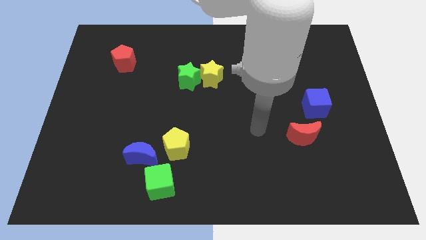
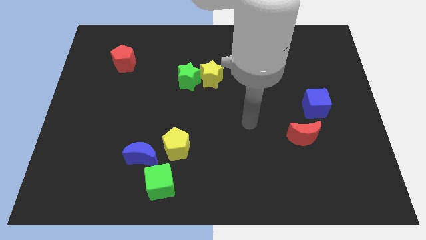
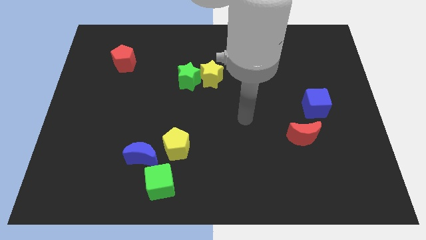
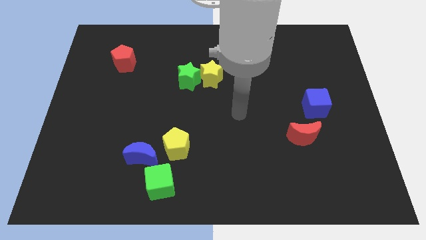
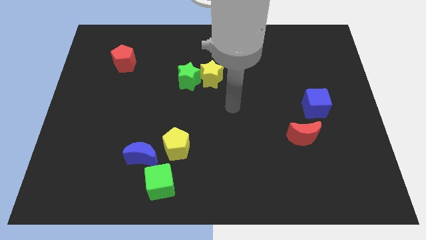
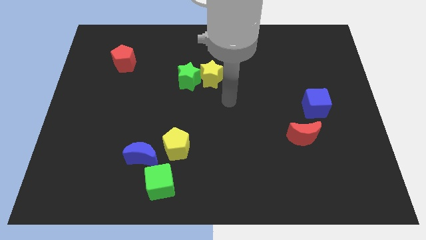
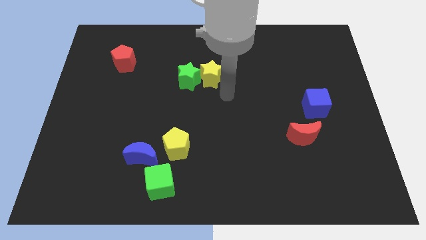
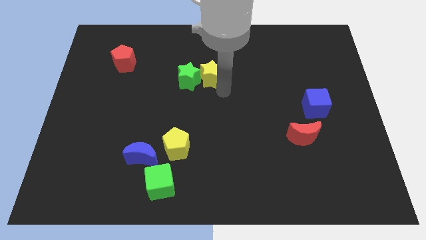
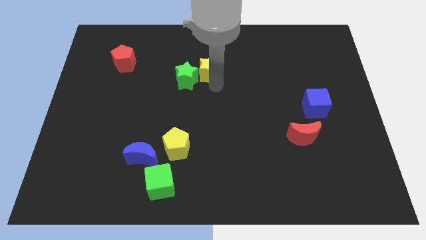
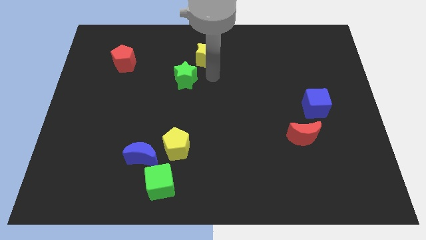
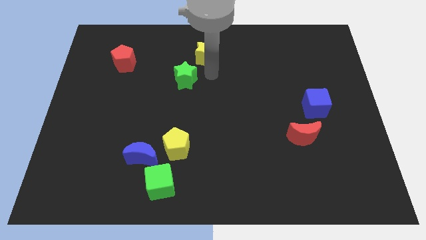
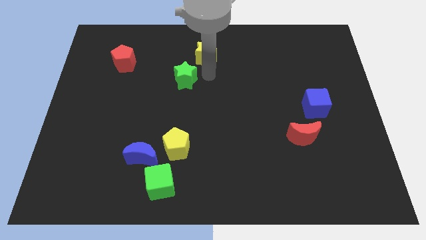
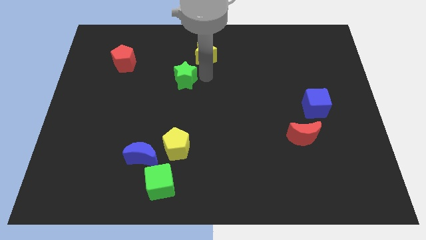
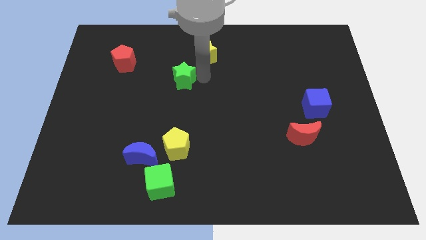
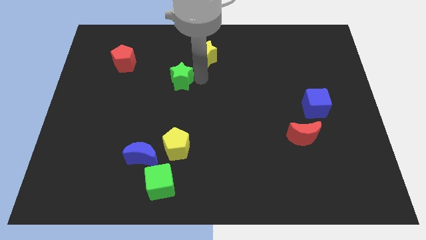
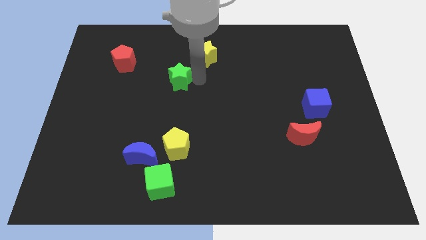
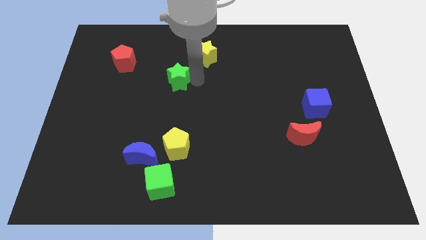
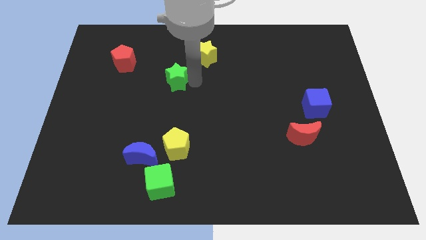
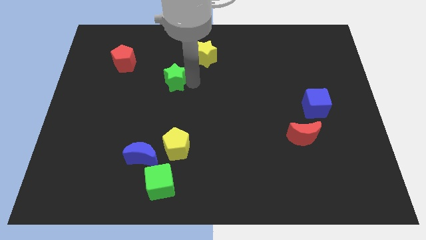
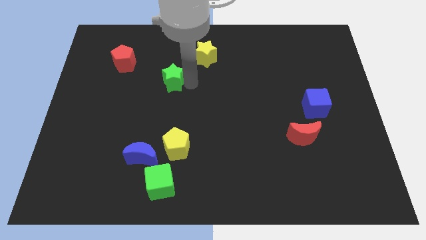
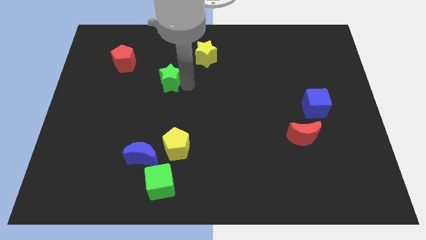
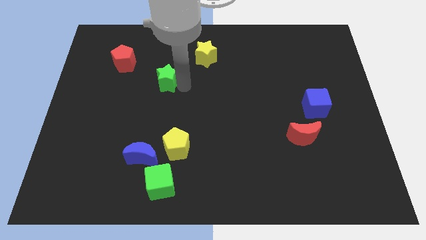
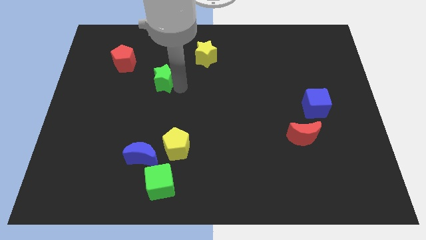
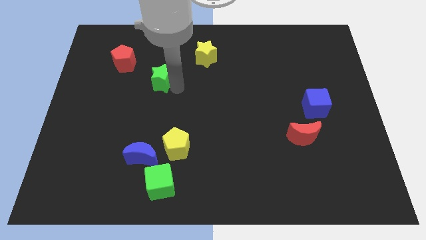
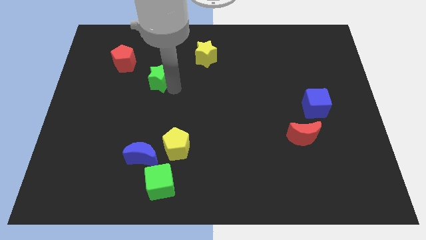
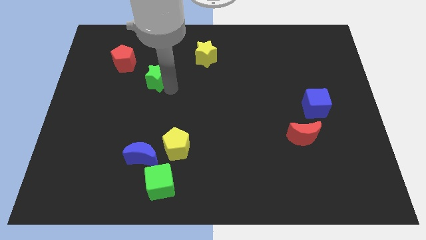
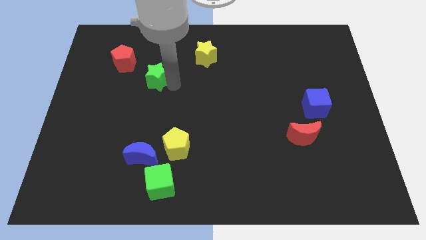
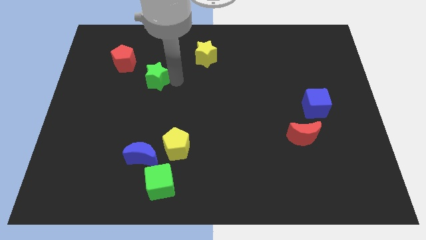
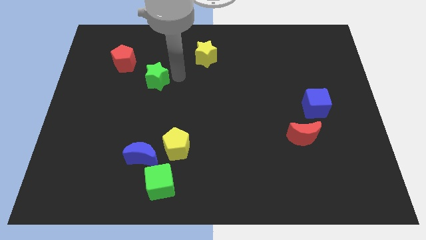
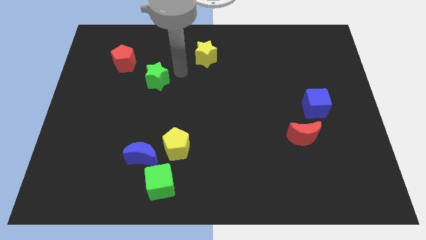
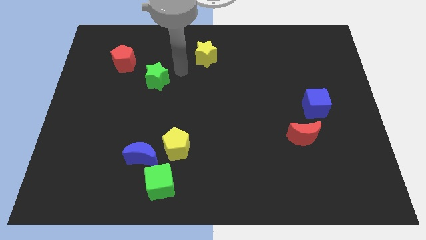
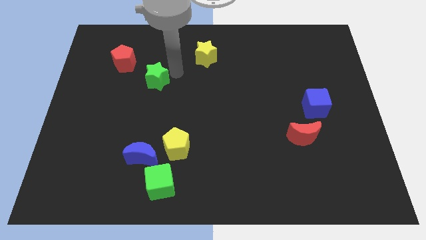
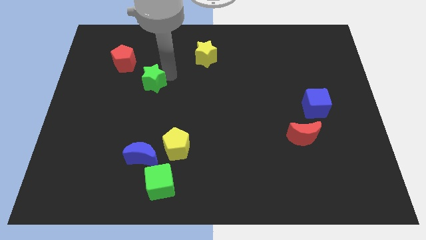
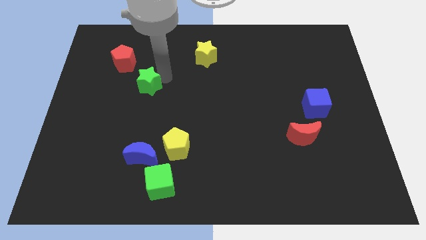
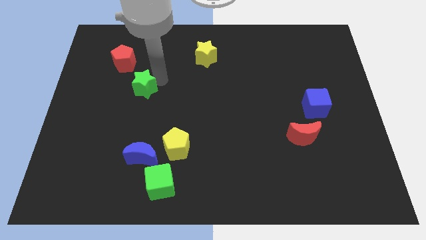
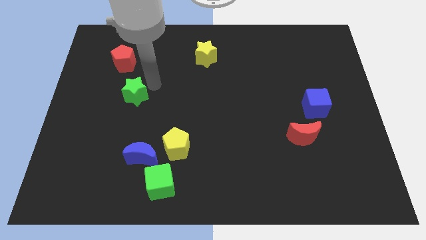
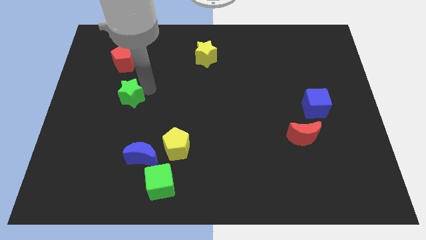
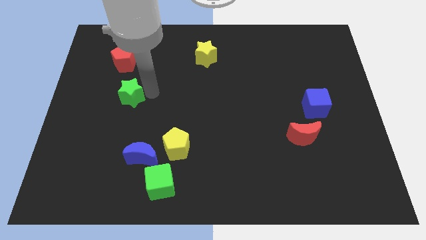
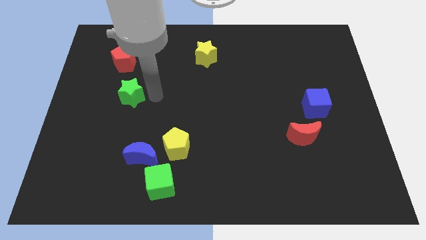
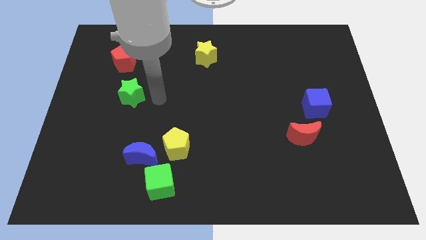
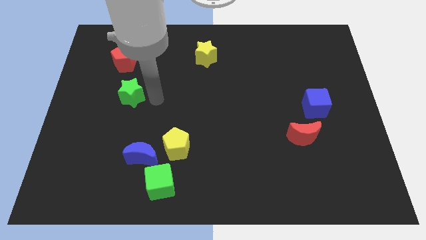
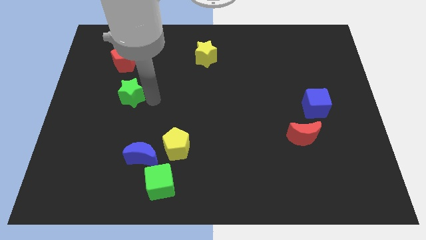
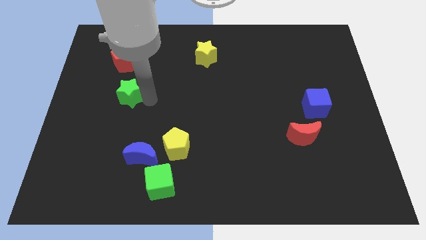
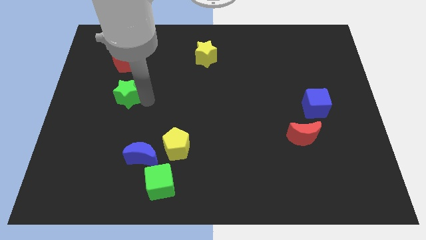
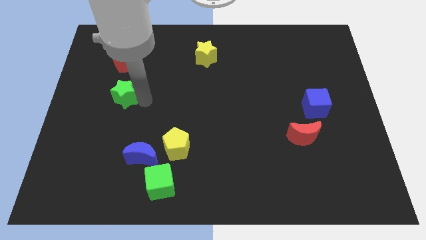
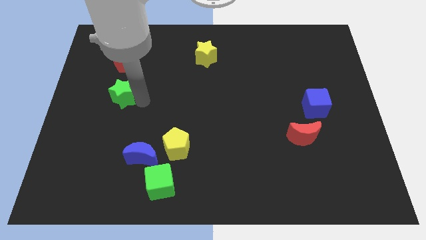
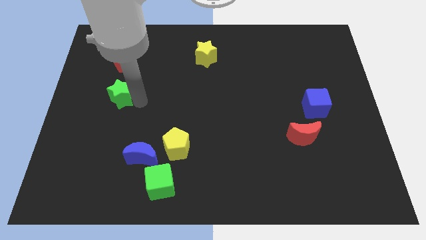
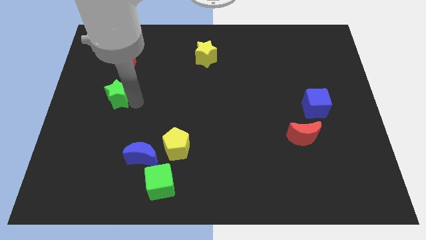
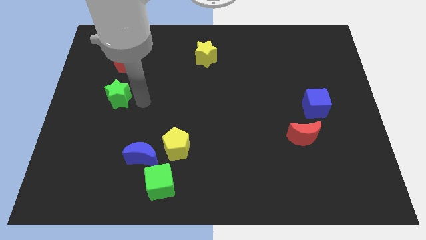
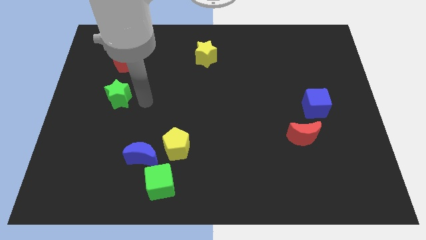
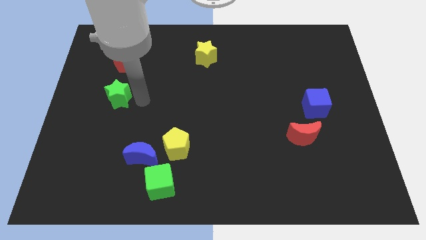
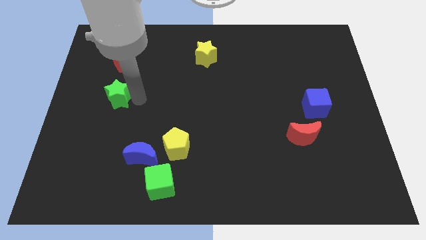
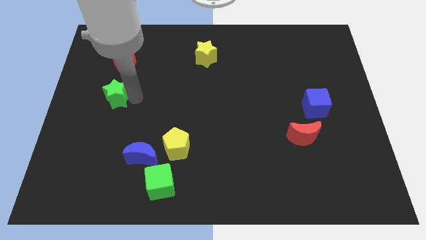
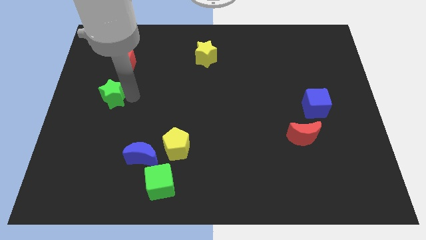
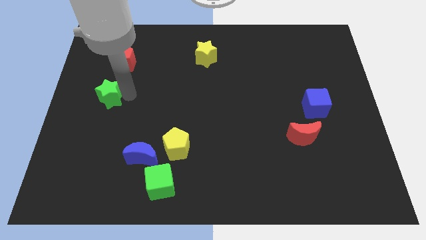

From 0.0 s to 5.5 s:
slide the green star to the center left

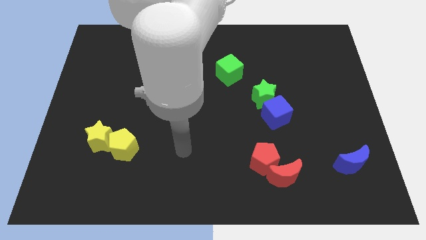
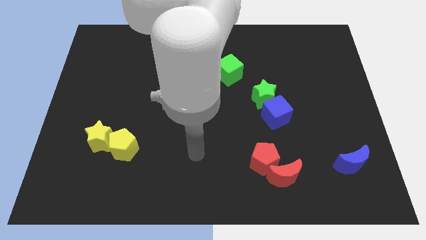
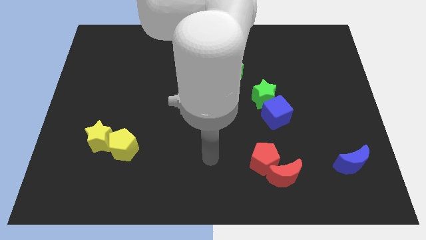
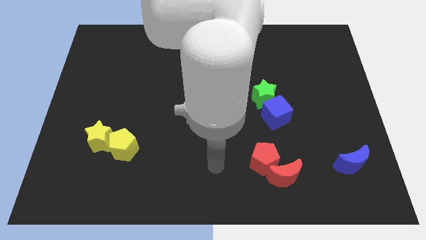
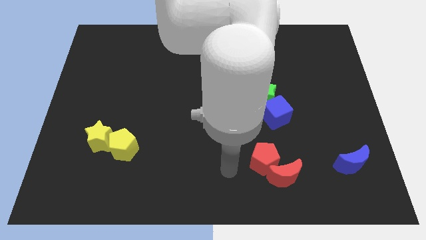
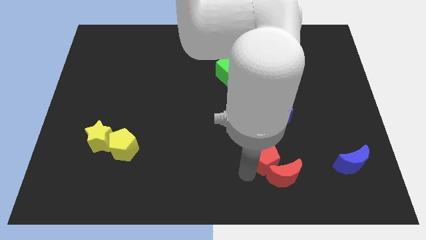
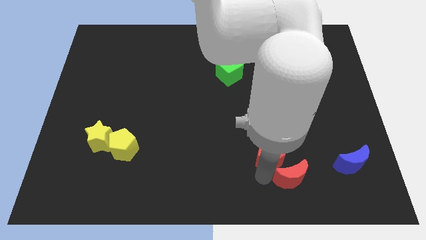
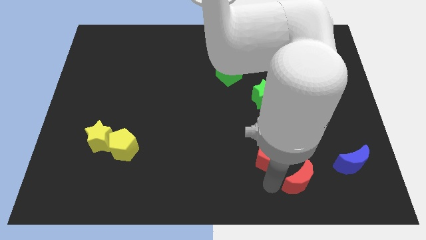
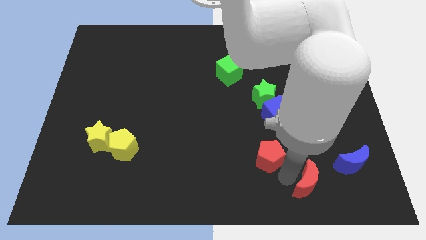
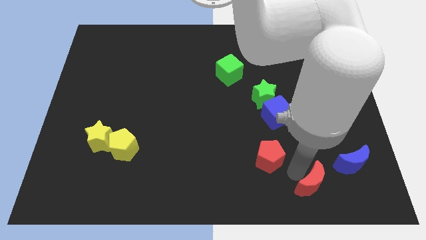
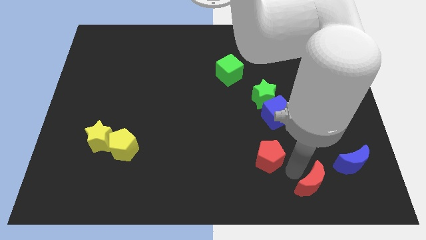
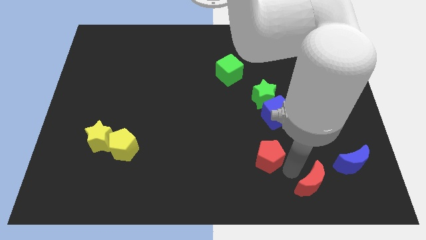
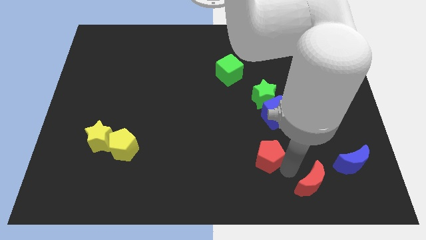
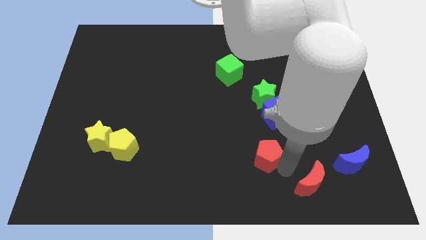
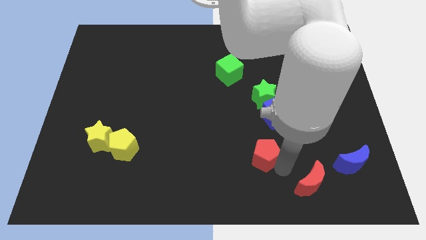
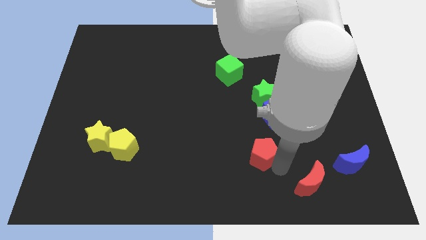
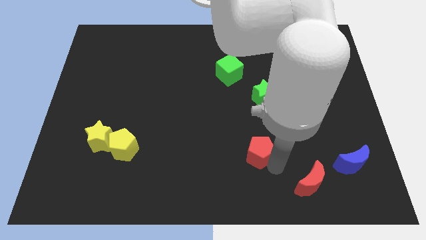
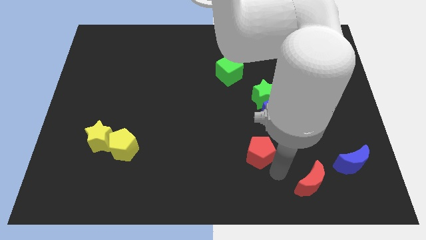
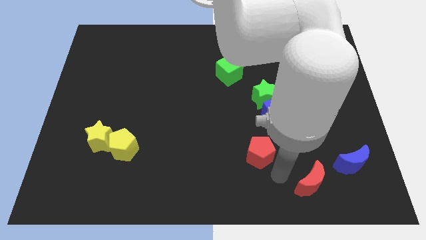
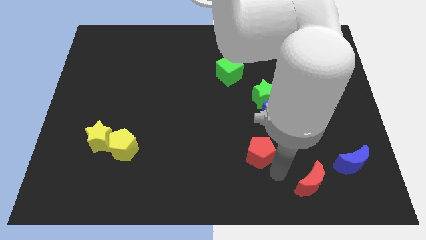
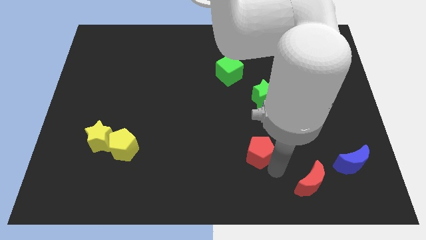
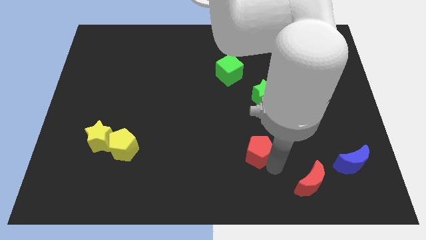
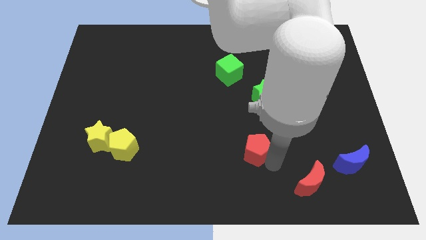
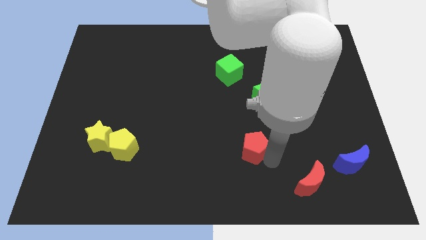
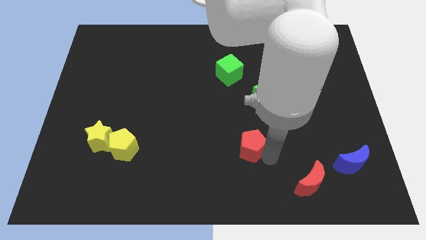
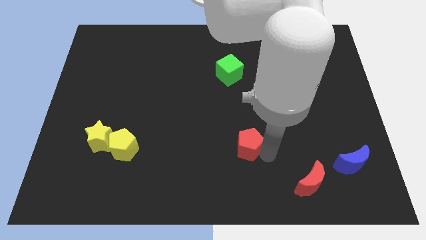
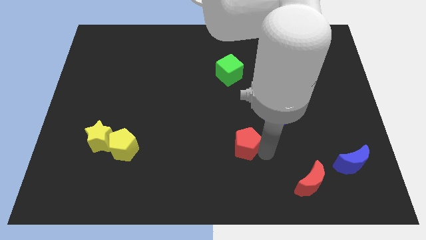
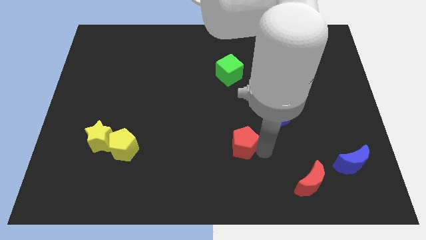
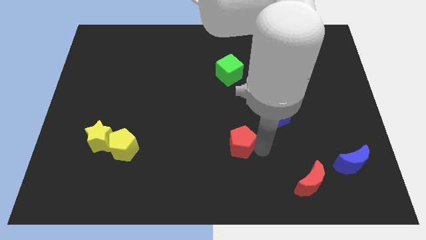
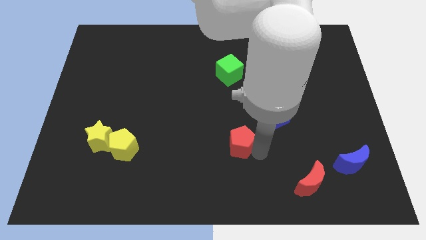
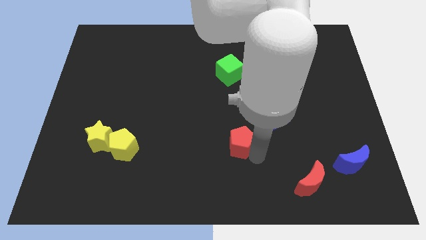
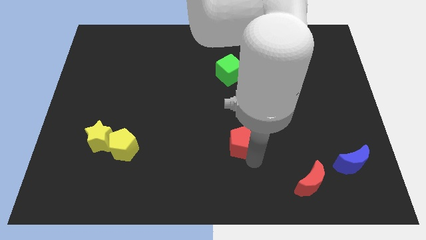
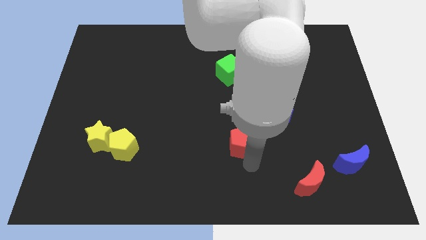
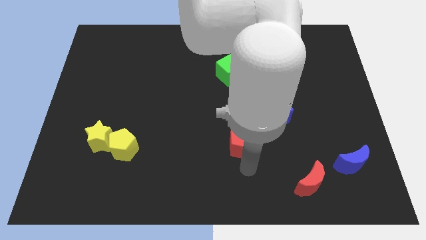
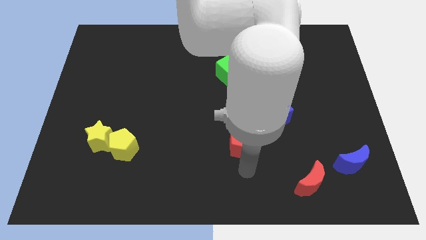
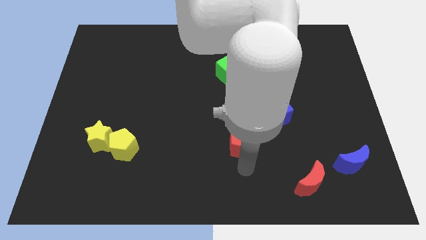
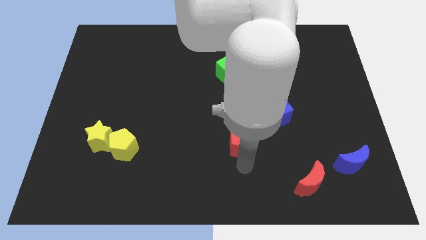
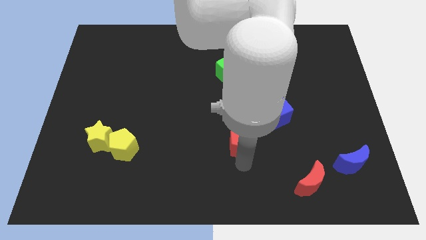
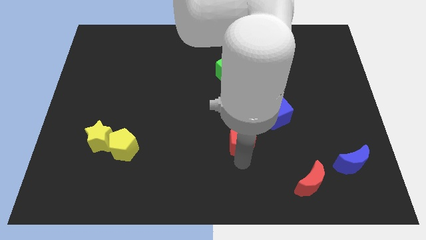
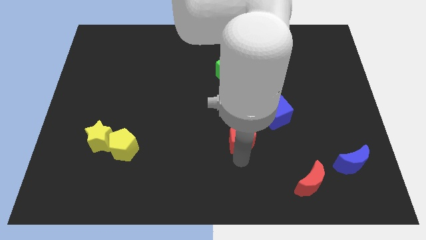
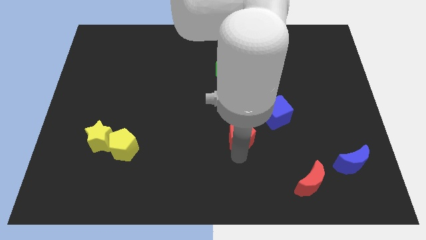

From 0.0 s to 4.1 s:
push the red pentagon to the middle
